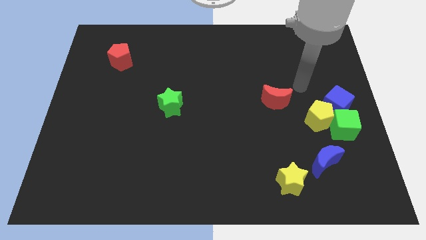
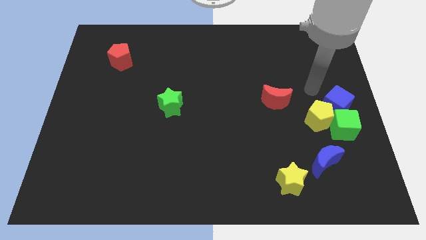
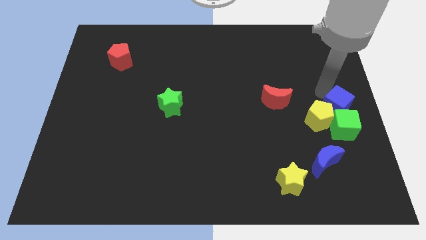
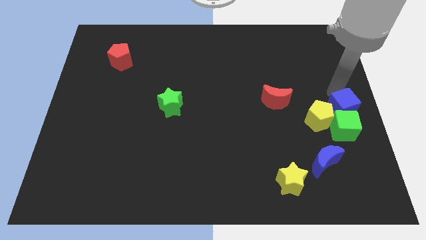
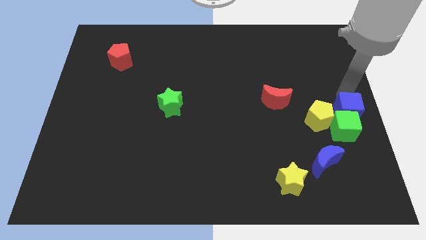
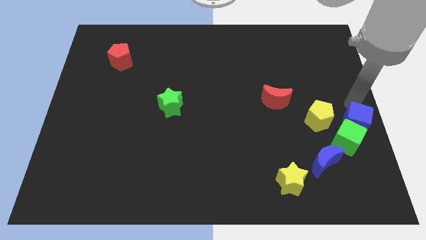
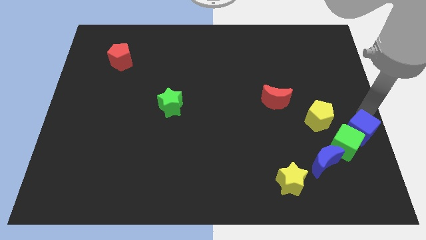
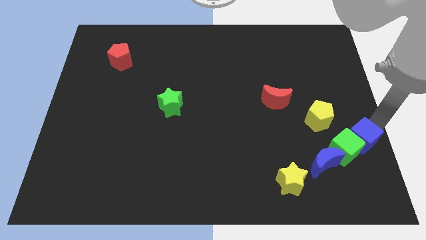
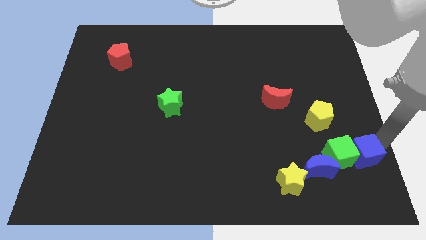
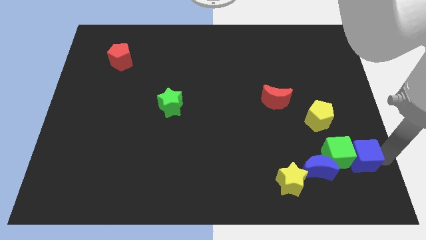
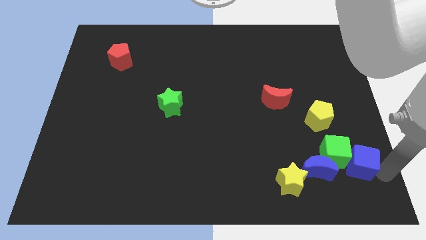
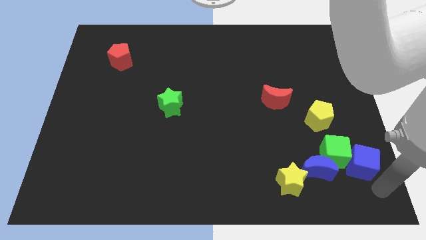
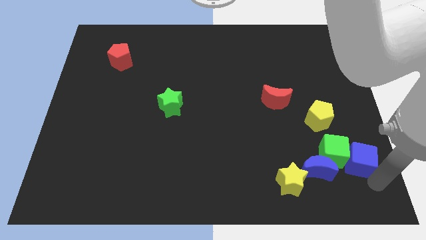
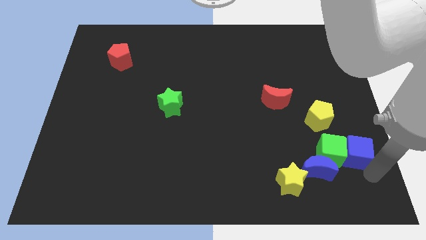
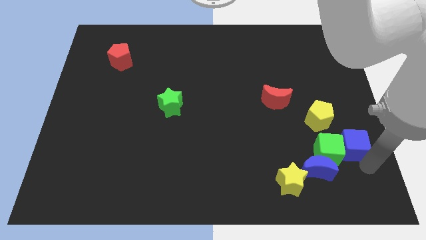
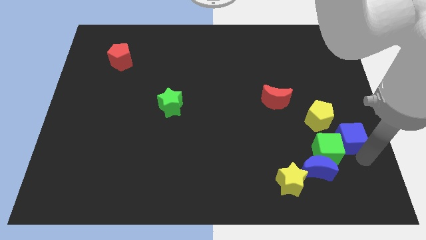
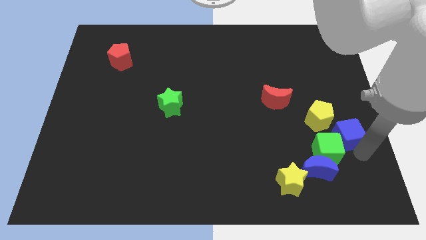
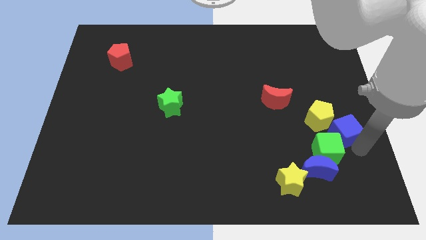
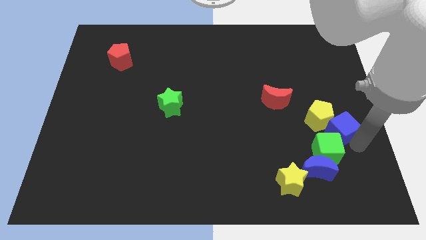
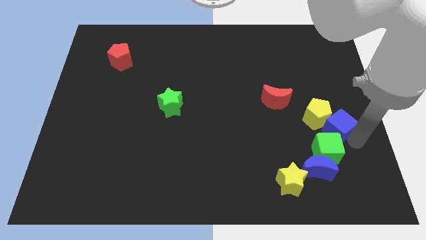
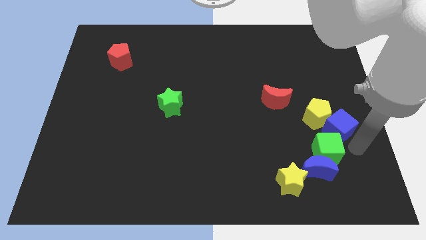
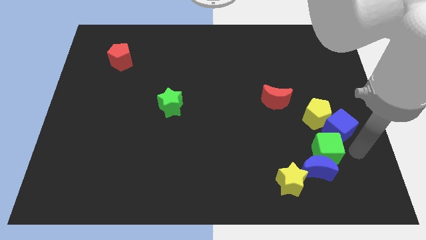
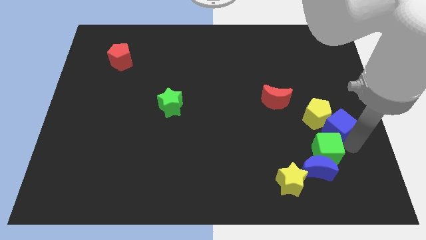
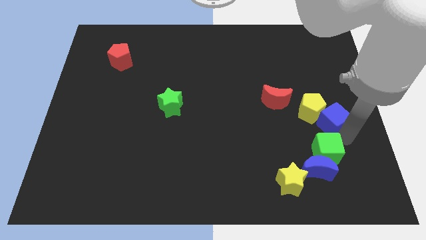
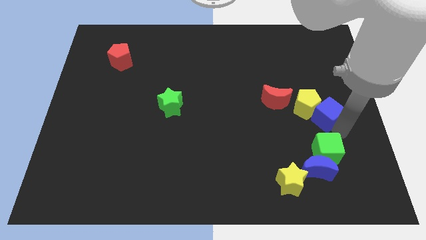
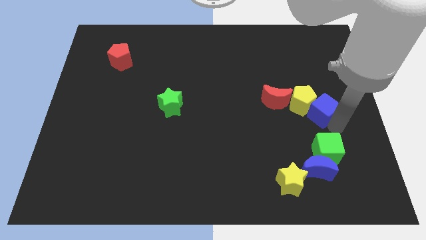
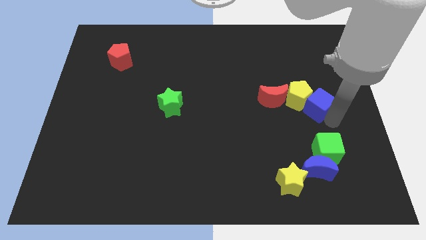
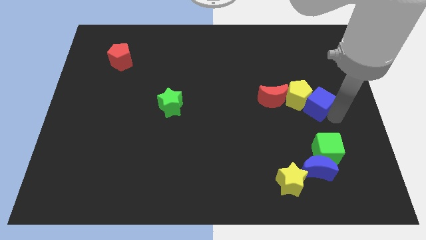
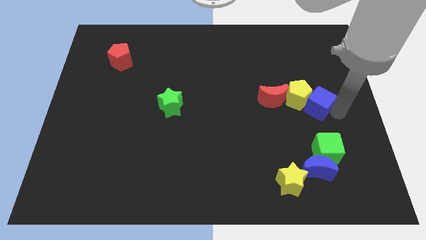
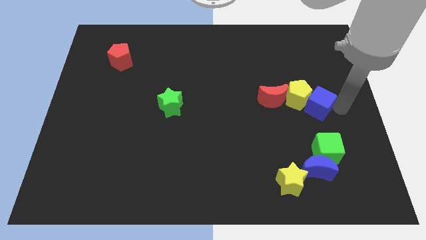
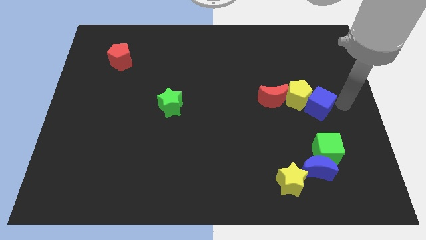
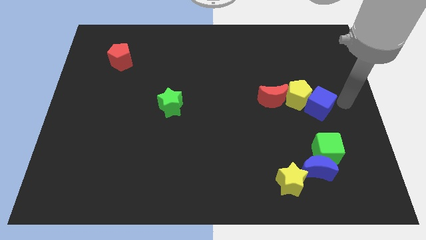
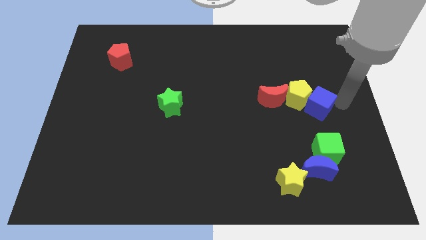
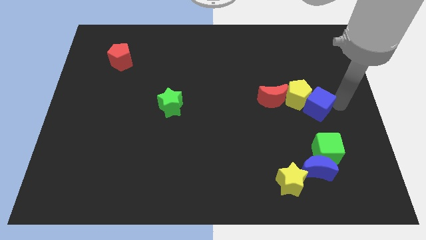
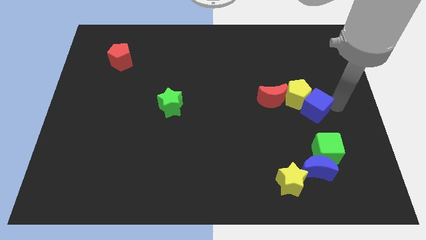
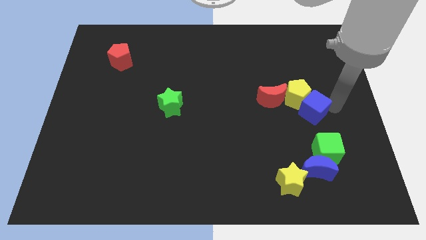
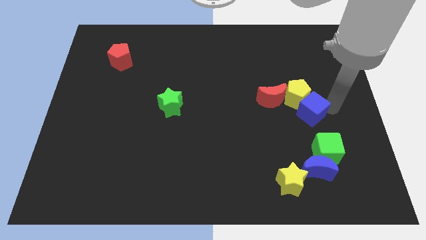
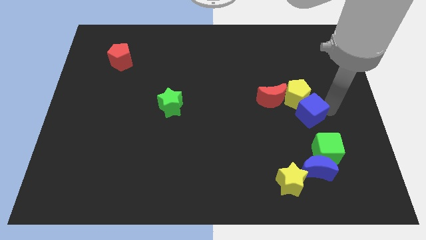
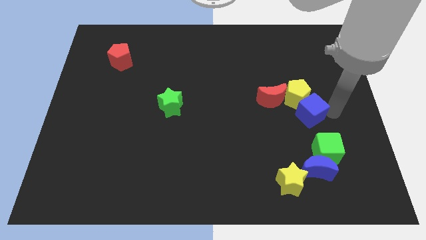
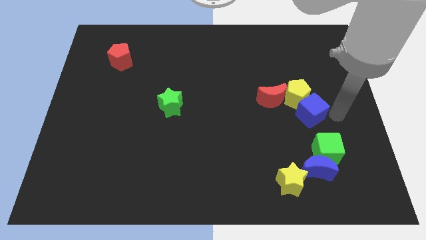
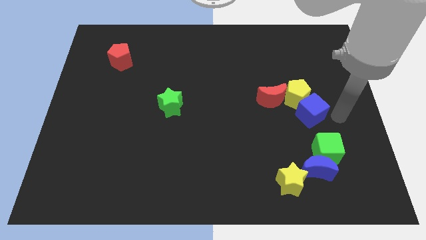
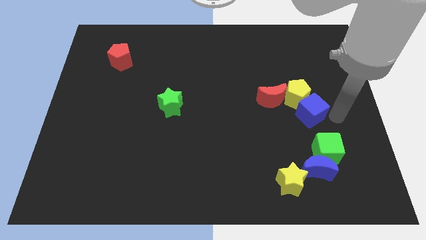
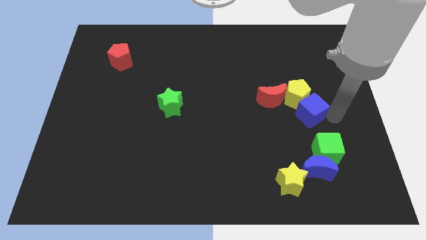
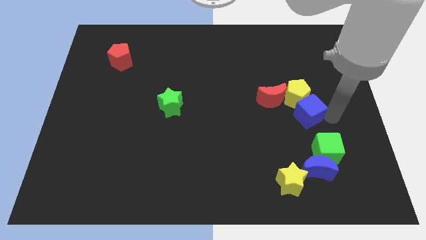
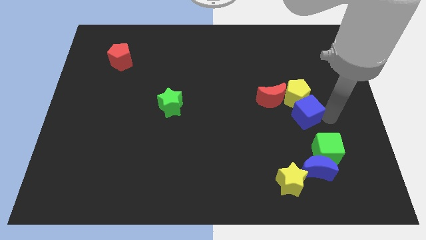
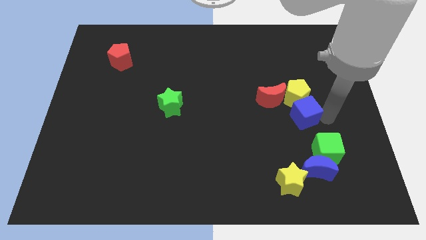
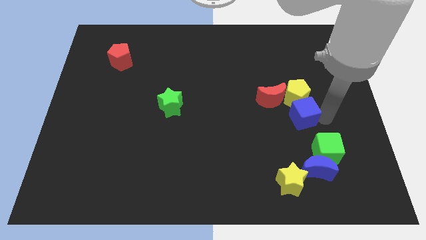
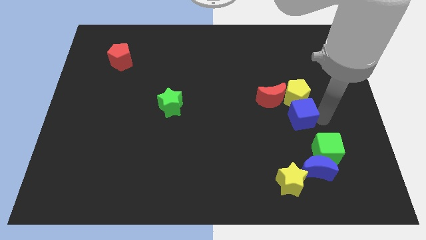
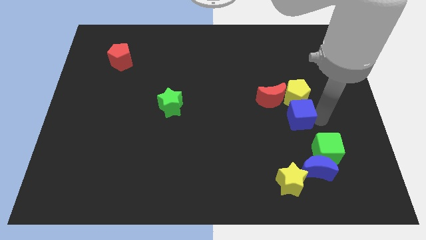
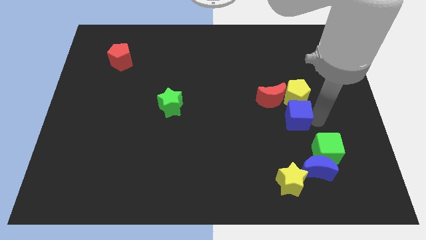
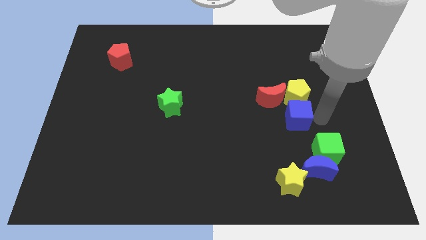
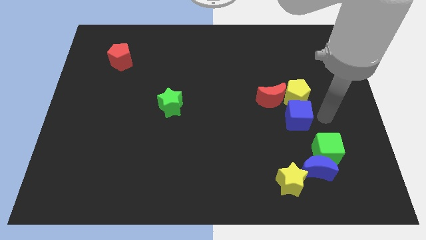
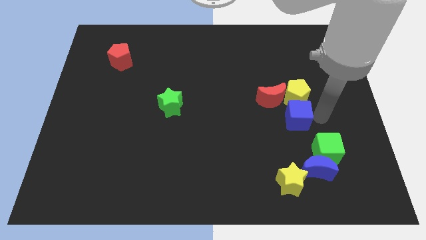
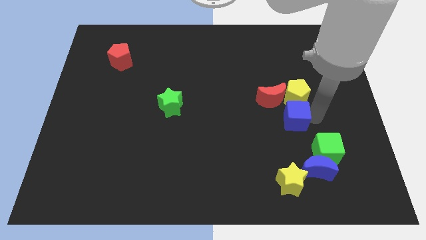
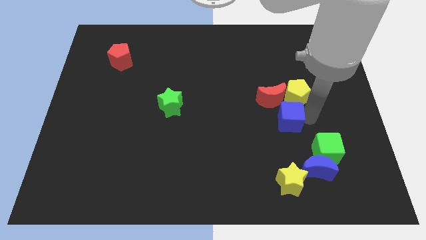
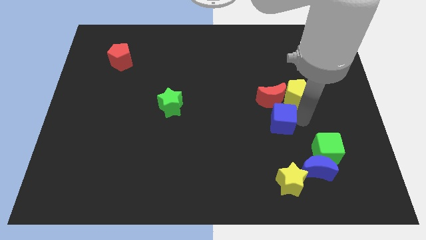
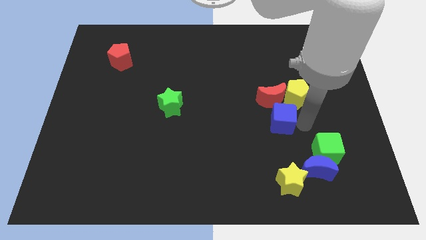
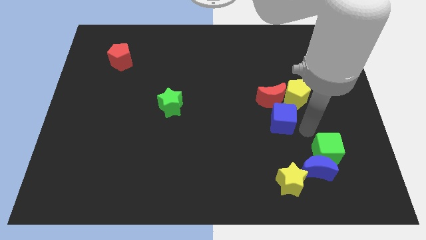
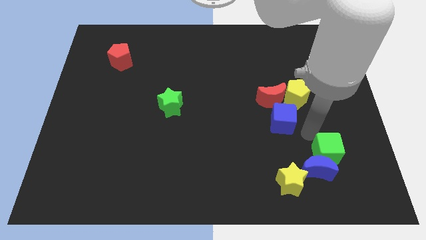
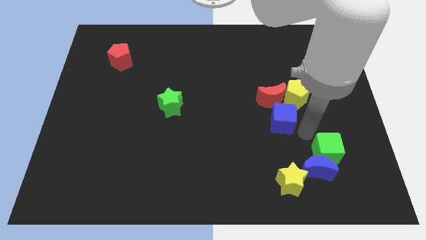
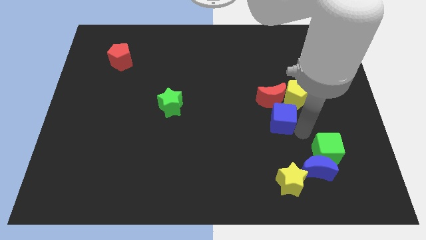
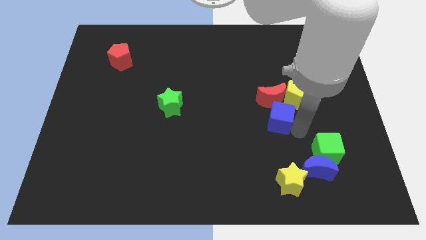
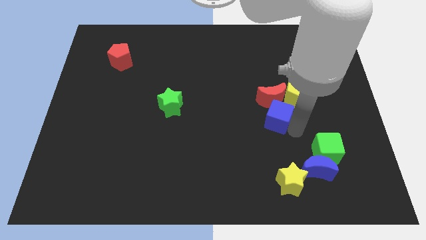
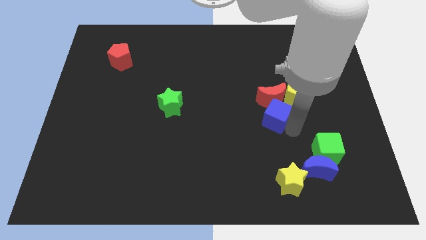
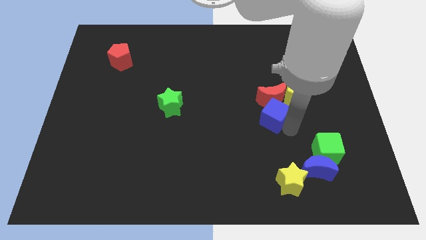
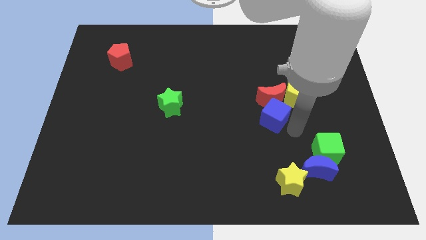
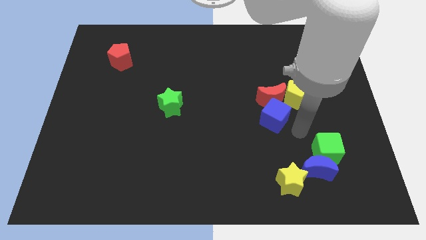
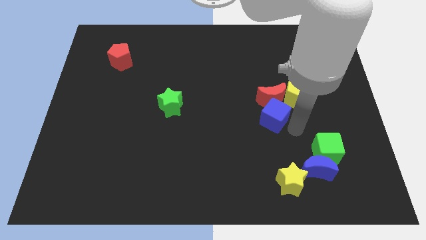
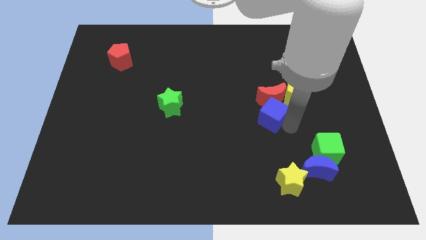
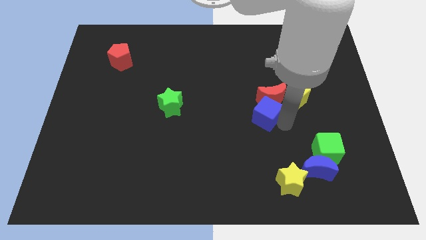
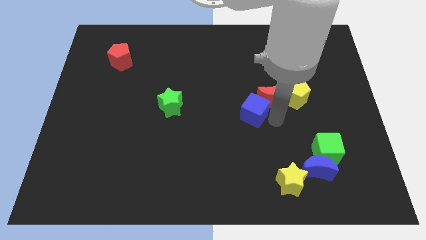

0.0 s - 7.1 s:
push the blue cube to the center of the board
